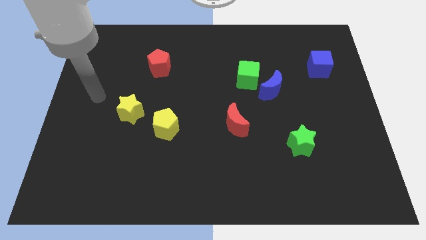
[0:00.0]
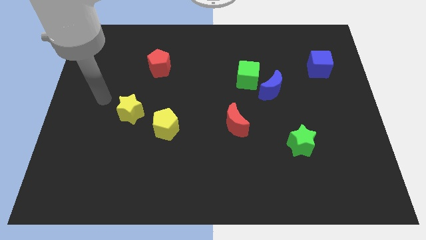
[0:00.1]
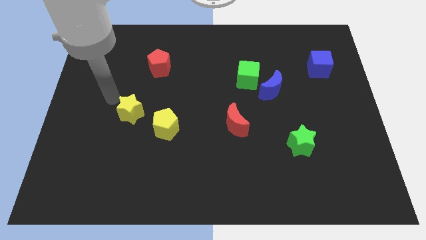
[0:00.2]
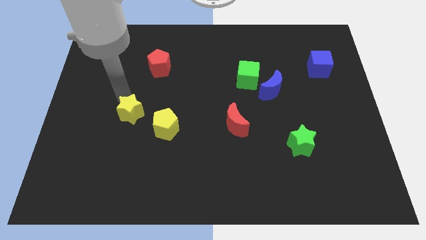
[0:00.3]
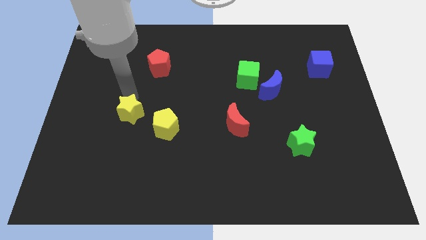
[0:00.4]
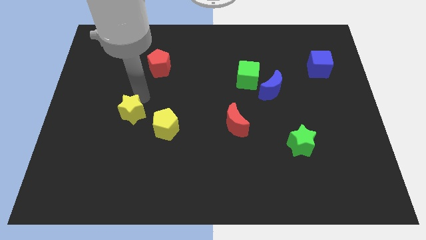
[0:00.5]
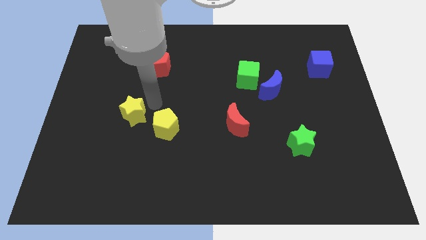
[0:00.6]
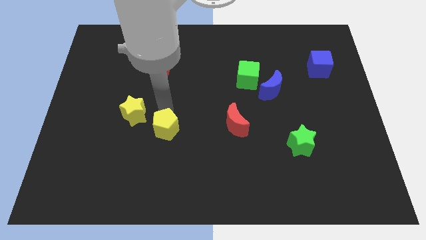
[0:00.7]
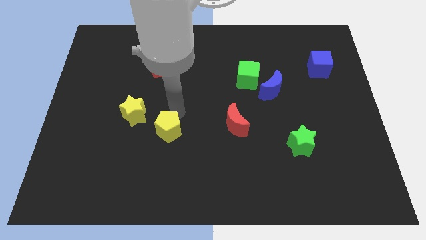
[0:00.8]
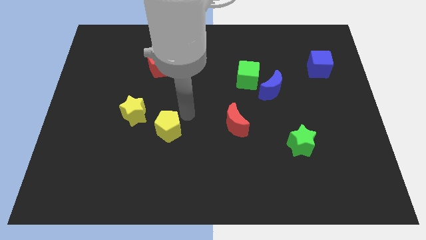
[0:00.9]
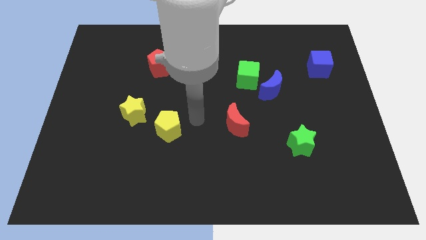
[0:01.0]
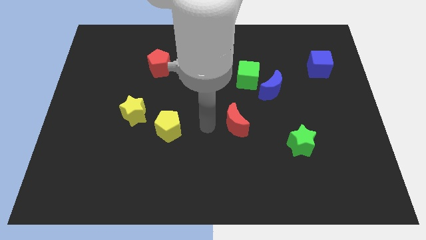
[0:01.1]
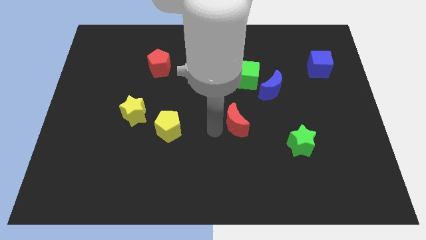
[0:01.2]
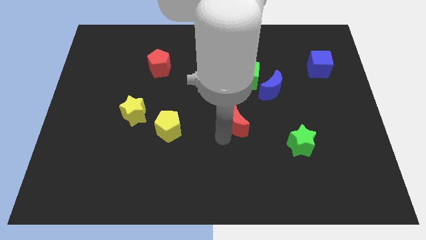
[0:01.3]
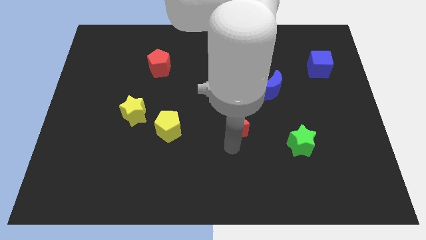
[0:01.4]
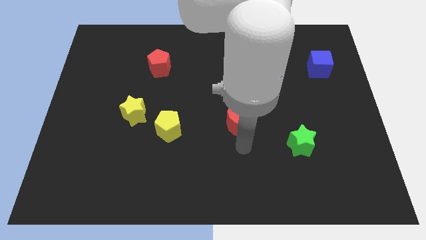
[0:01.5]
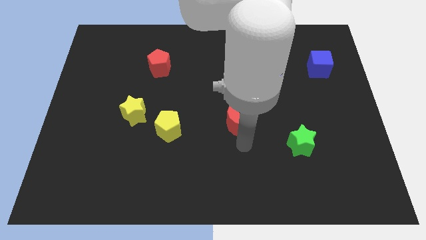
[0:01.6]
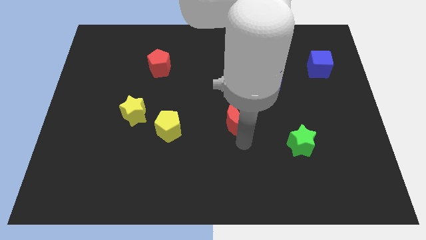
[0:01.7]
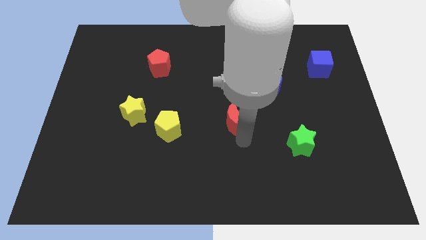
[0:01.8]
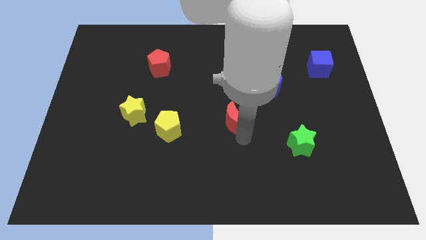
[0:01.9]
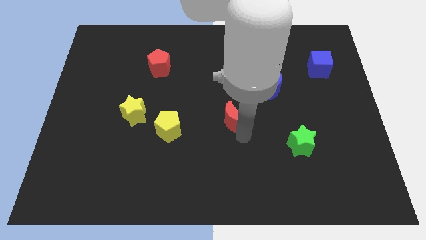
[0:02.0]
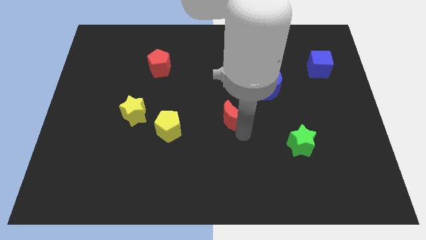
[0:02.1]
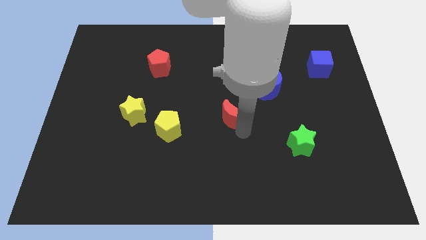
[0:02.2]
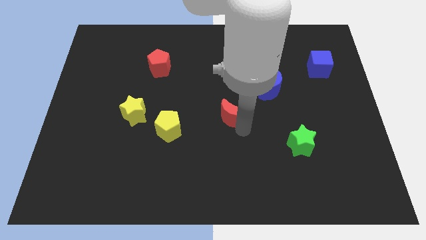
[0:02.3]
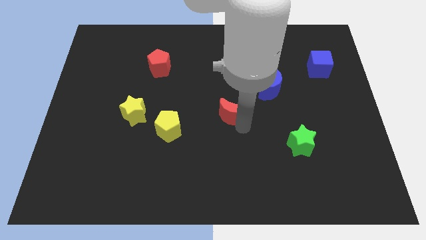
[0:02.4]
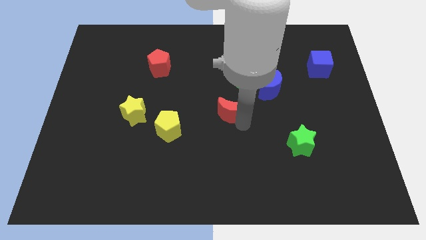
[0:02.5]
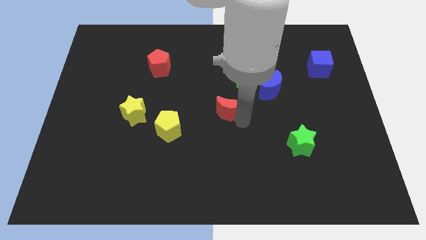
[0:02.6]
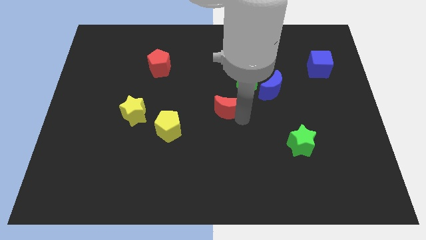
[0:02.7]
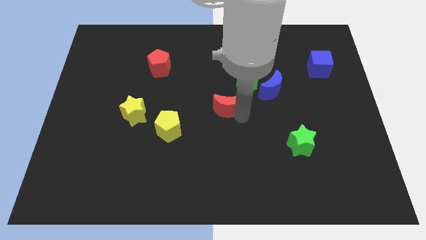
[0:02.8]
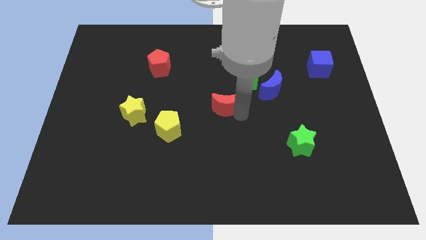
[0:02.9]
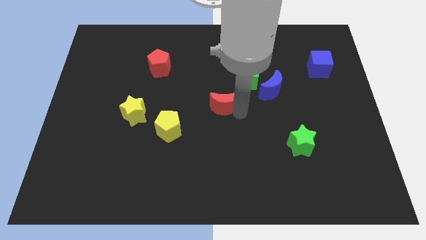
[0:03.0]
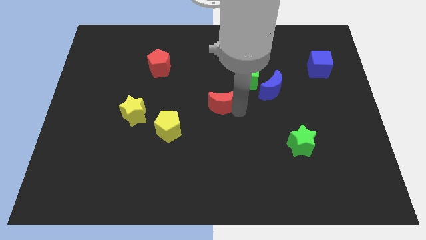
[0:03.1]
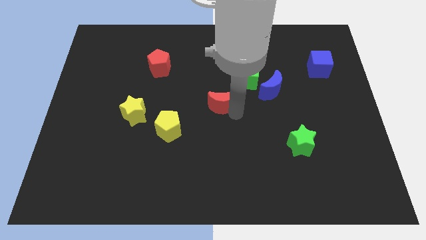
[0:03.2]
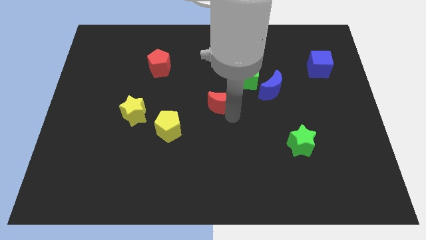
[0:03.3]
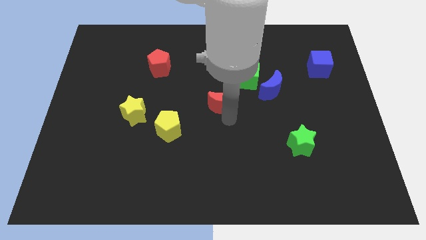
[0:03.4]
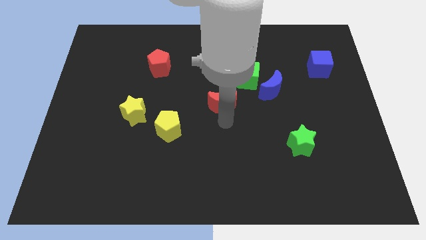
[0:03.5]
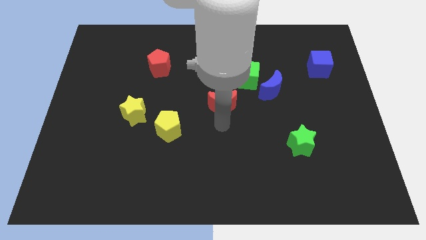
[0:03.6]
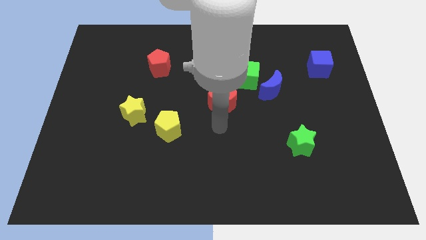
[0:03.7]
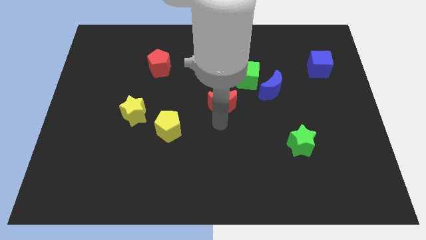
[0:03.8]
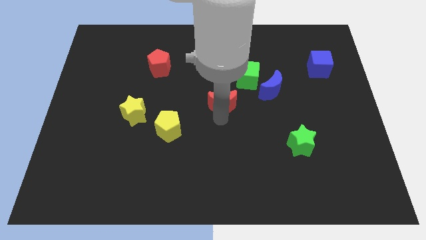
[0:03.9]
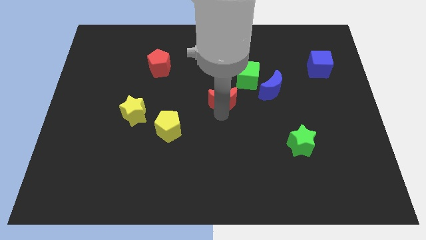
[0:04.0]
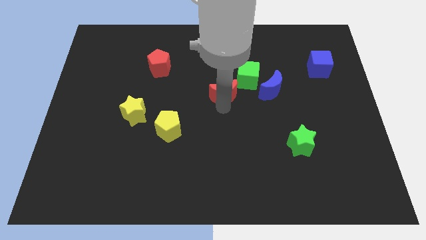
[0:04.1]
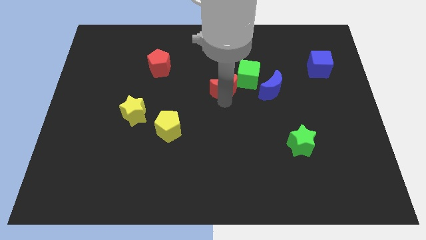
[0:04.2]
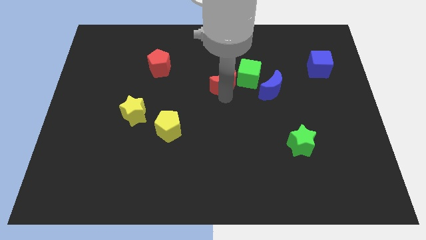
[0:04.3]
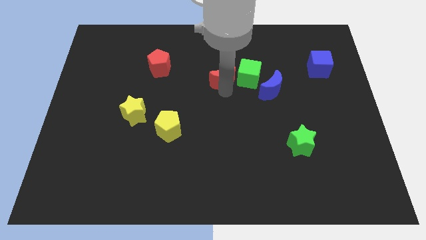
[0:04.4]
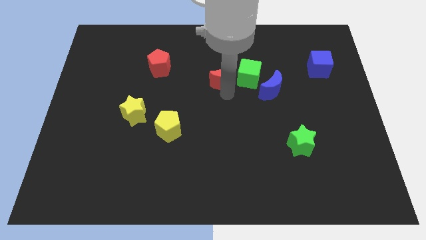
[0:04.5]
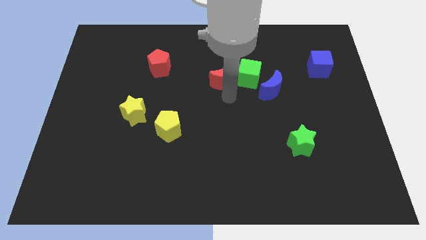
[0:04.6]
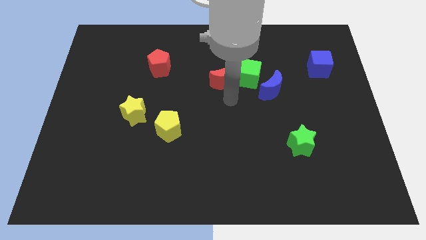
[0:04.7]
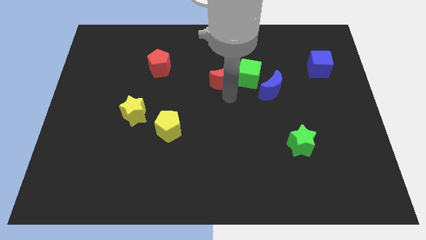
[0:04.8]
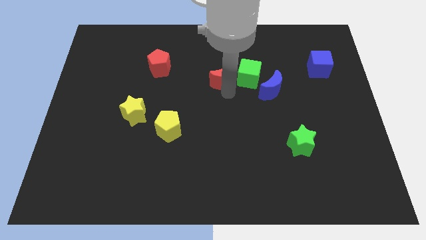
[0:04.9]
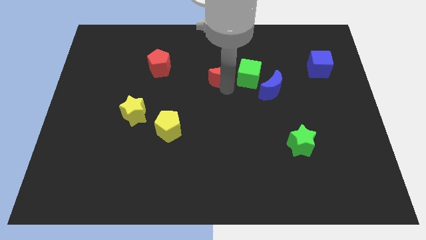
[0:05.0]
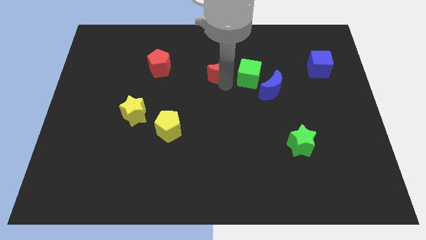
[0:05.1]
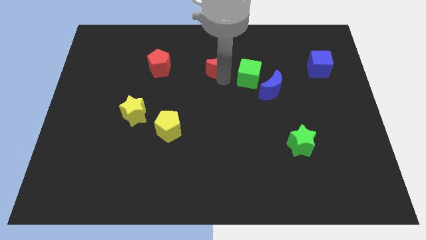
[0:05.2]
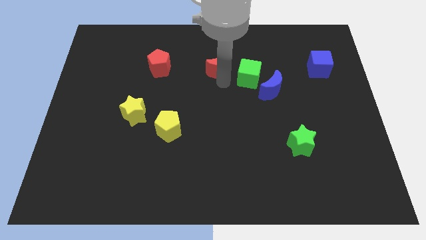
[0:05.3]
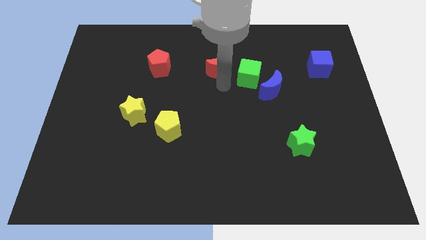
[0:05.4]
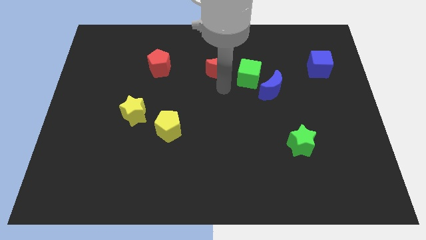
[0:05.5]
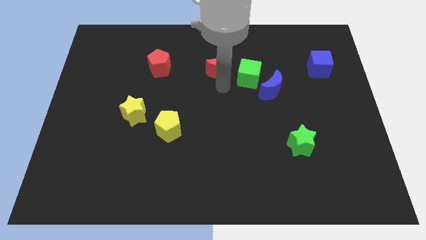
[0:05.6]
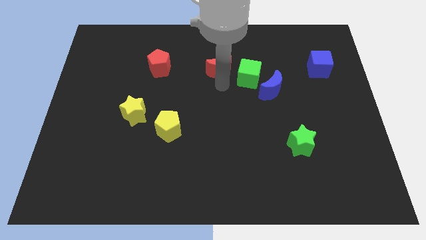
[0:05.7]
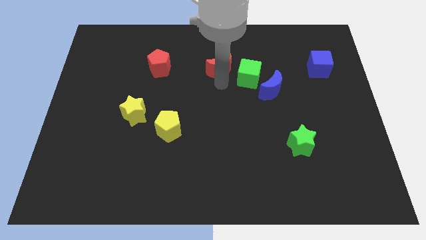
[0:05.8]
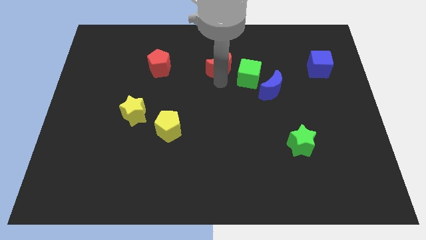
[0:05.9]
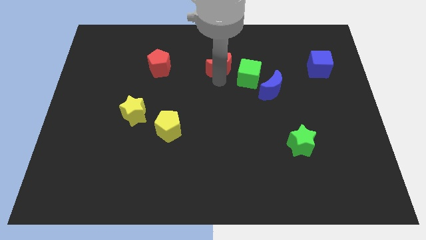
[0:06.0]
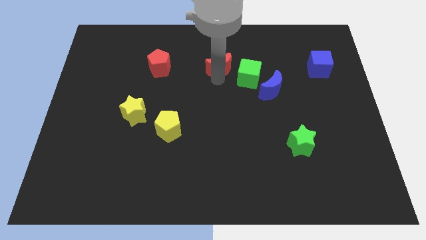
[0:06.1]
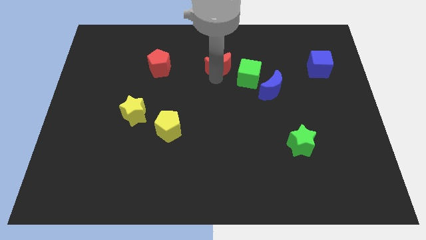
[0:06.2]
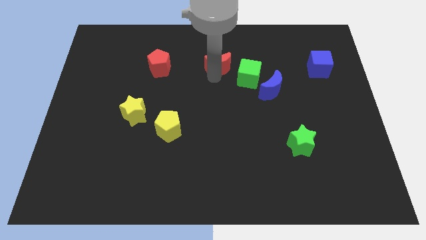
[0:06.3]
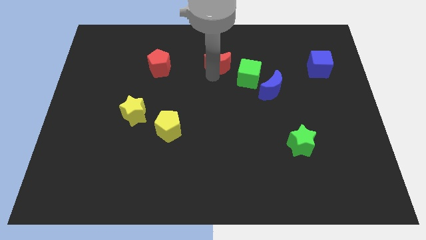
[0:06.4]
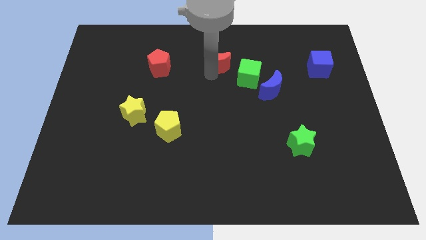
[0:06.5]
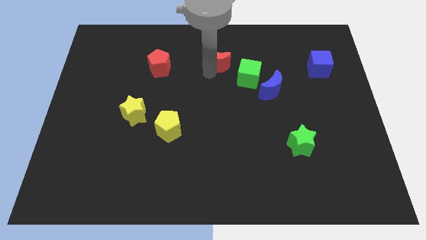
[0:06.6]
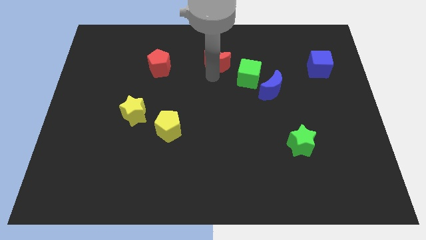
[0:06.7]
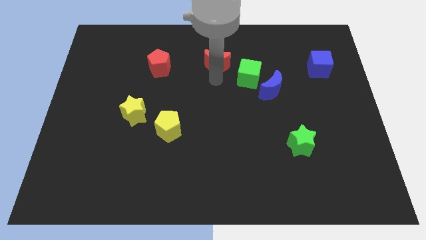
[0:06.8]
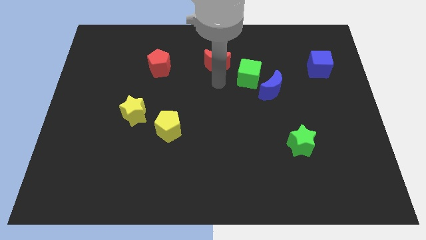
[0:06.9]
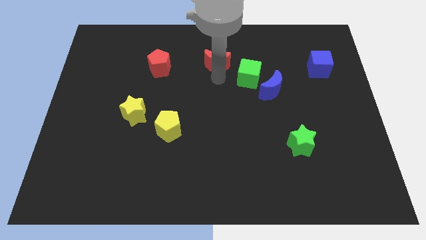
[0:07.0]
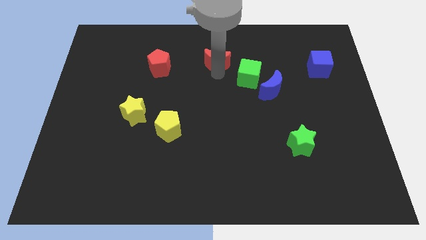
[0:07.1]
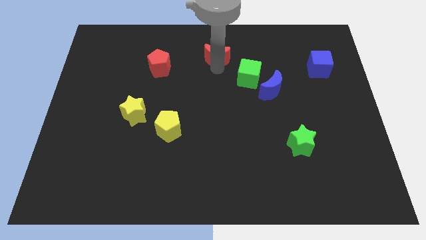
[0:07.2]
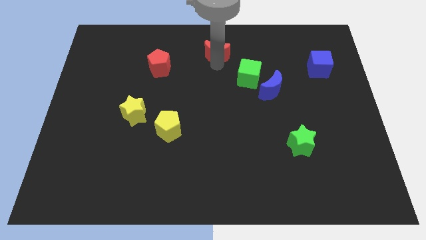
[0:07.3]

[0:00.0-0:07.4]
move the red moon to the top
